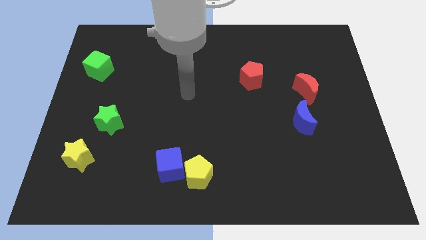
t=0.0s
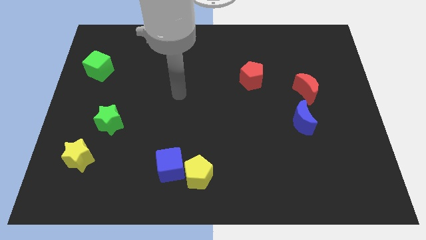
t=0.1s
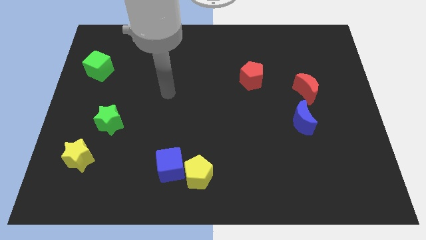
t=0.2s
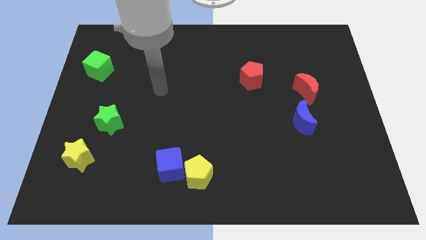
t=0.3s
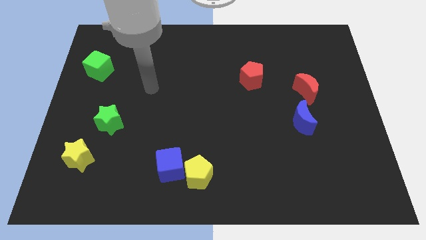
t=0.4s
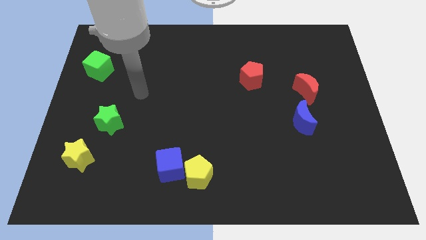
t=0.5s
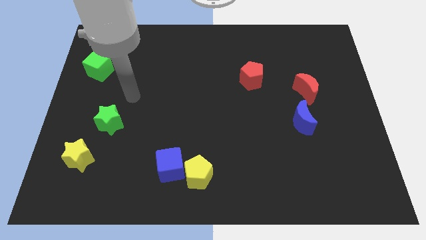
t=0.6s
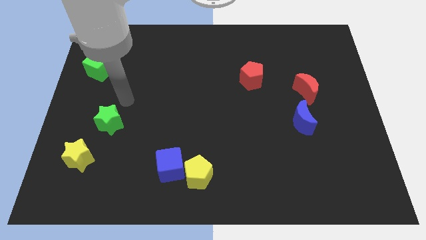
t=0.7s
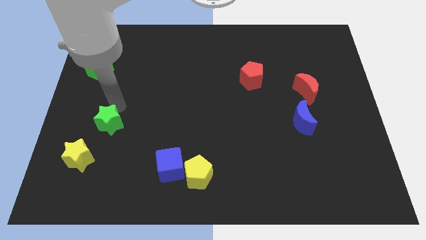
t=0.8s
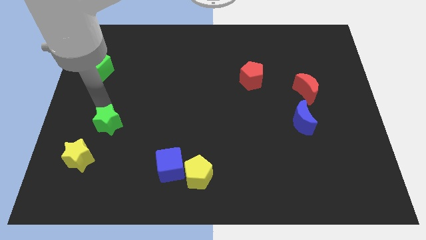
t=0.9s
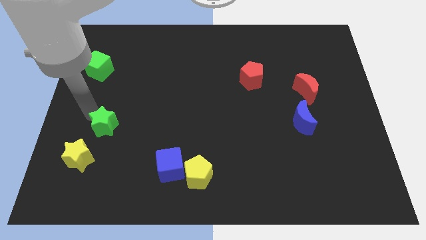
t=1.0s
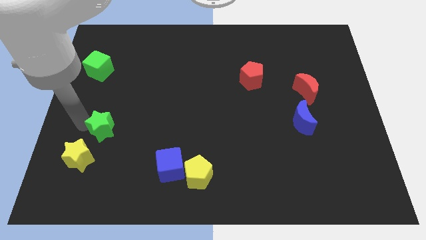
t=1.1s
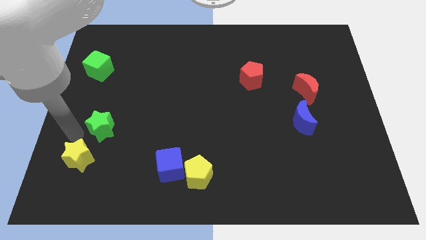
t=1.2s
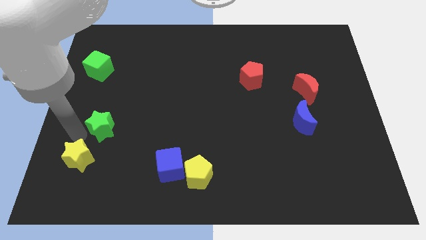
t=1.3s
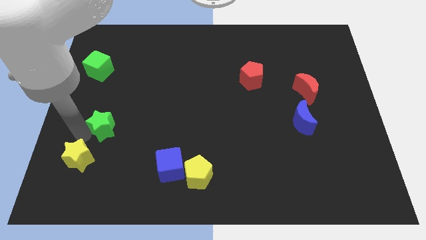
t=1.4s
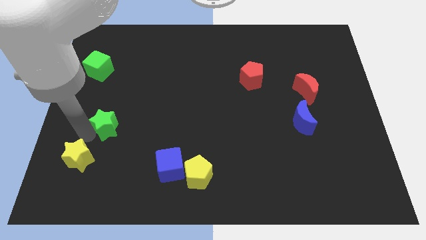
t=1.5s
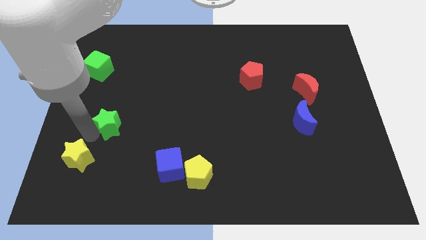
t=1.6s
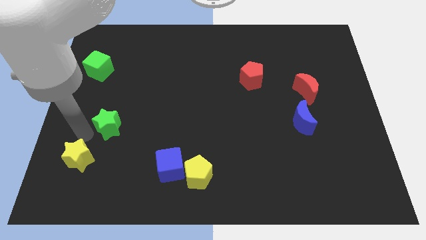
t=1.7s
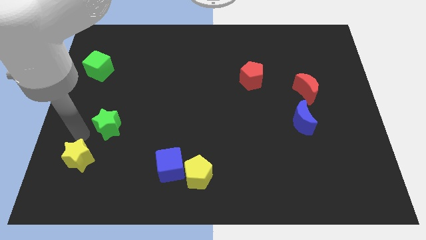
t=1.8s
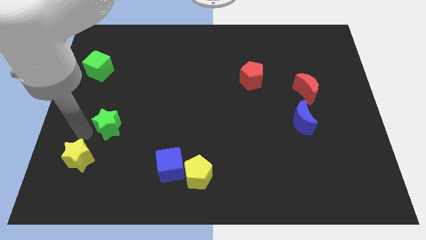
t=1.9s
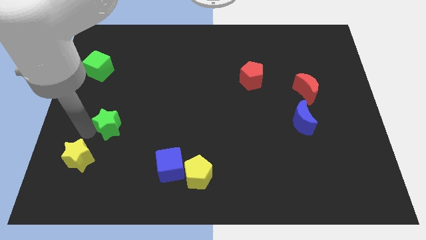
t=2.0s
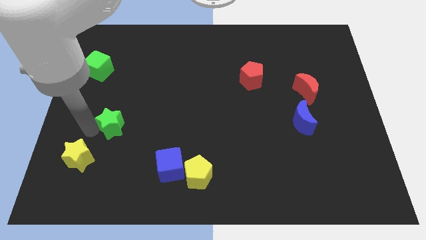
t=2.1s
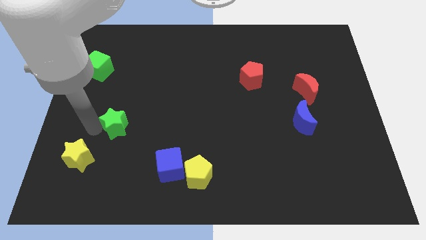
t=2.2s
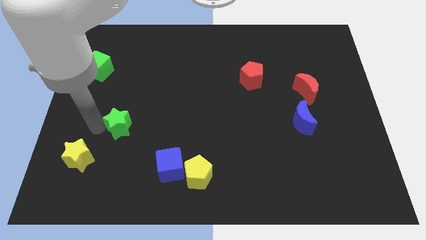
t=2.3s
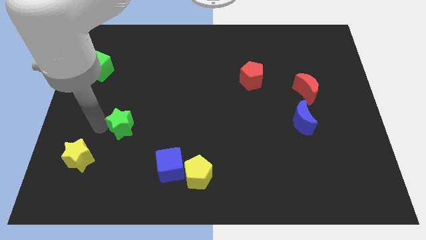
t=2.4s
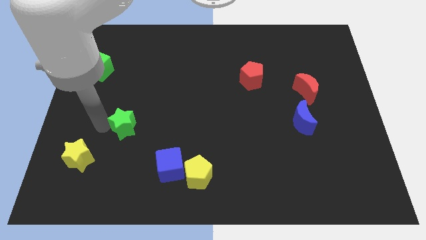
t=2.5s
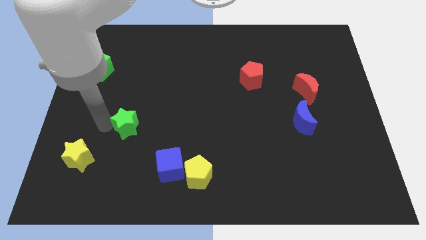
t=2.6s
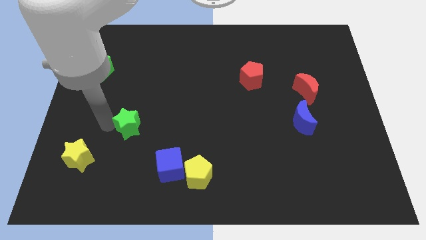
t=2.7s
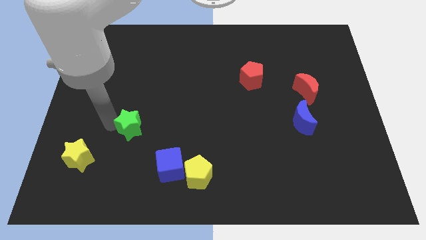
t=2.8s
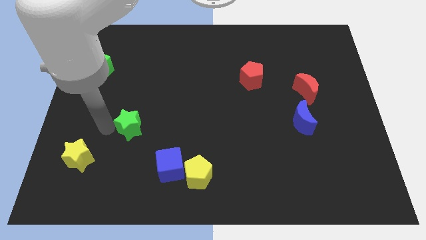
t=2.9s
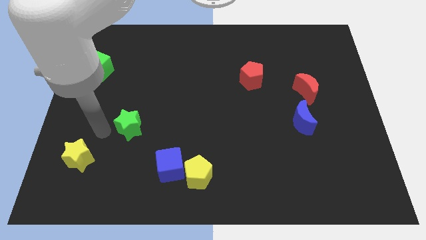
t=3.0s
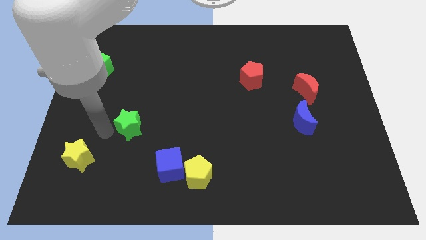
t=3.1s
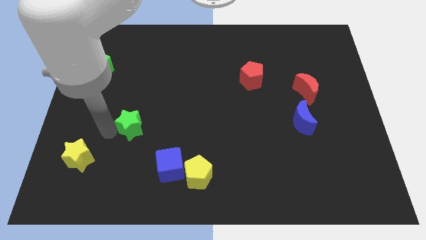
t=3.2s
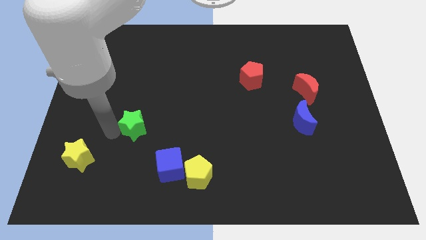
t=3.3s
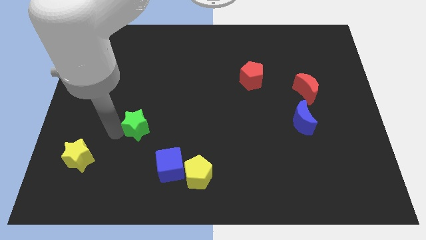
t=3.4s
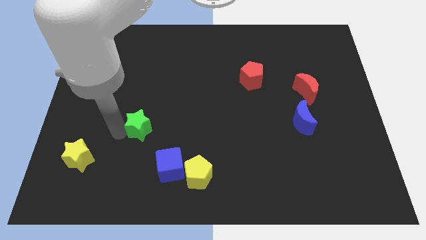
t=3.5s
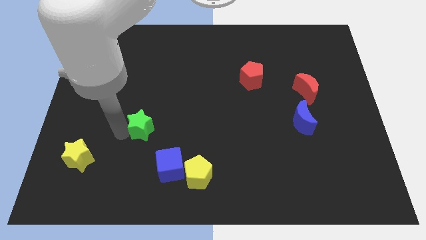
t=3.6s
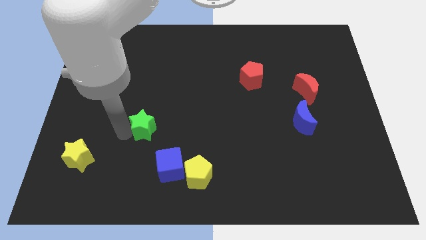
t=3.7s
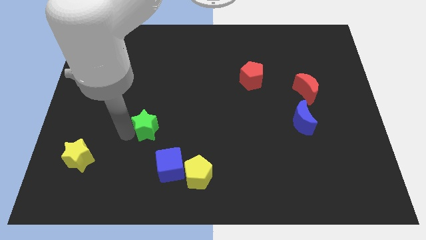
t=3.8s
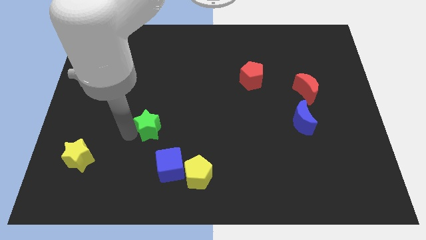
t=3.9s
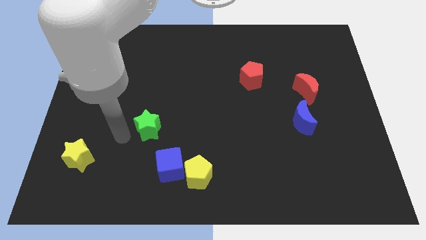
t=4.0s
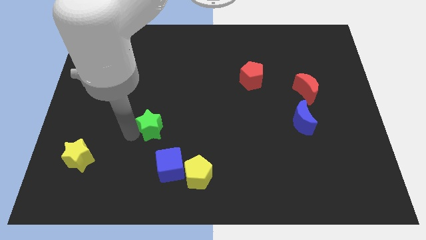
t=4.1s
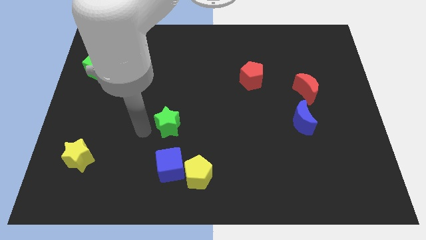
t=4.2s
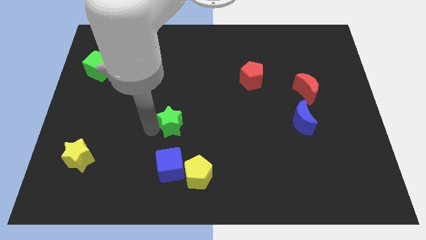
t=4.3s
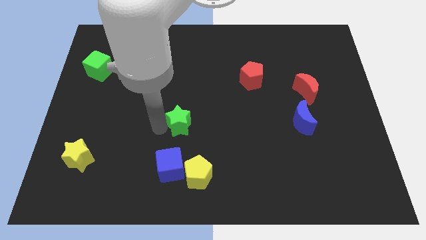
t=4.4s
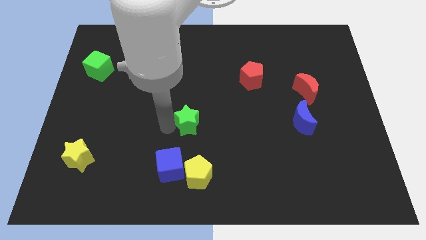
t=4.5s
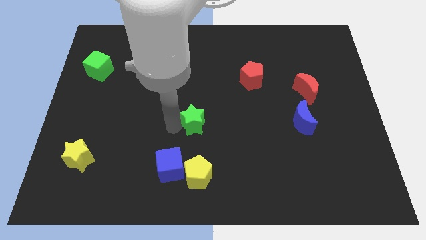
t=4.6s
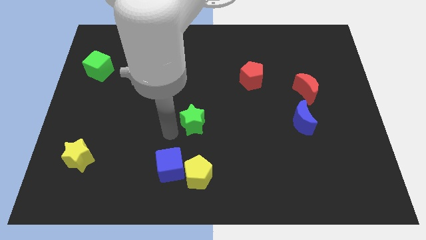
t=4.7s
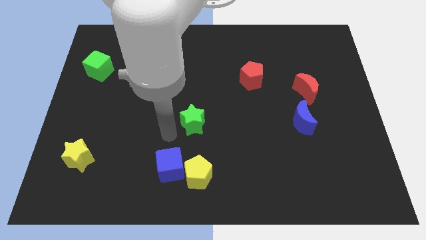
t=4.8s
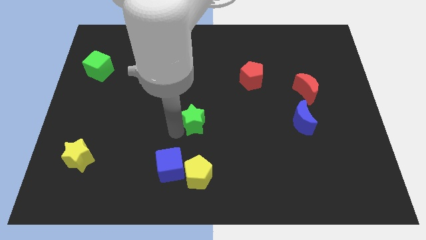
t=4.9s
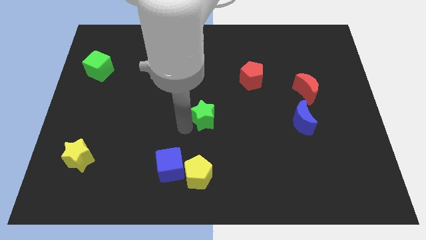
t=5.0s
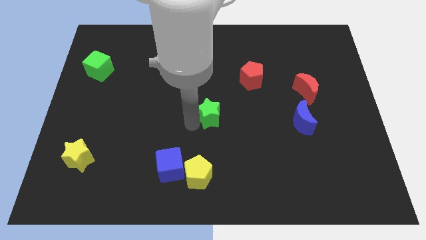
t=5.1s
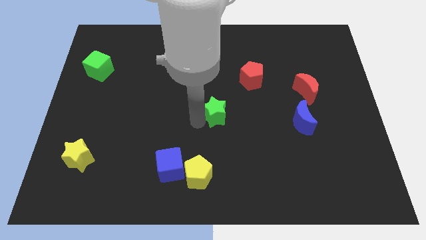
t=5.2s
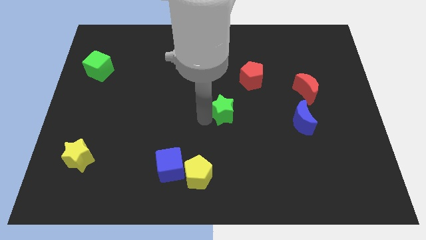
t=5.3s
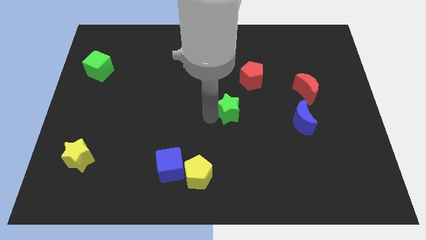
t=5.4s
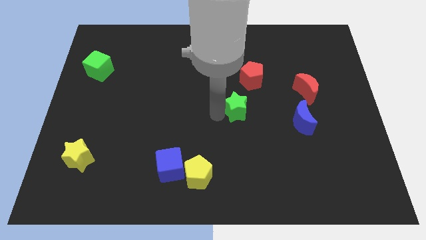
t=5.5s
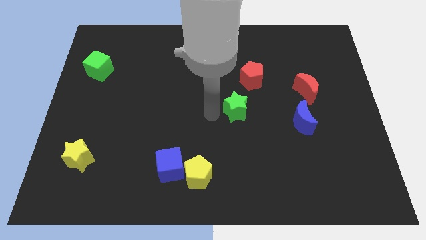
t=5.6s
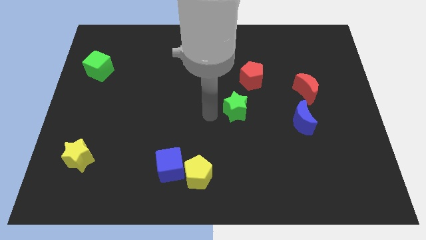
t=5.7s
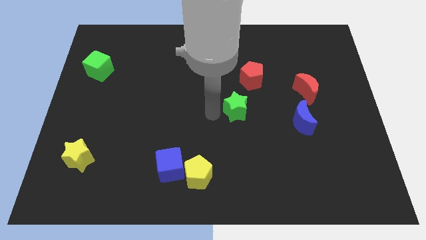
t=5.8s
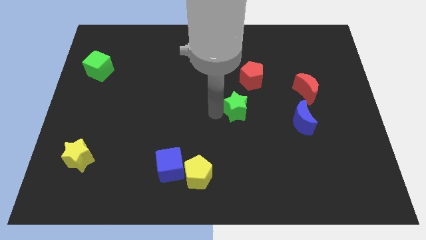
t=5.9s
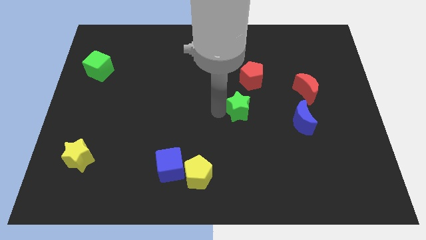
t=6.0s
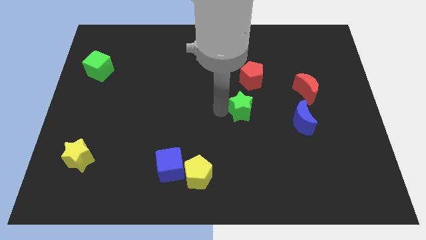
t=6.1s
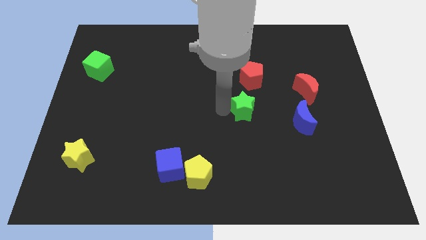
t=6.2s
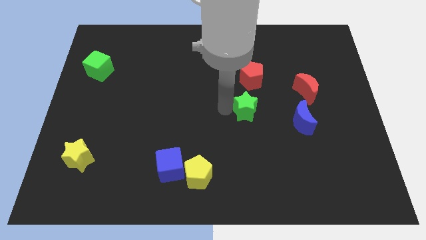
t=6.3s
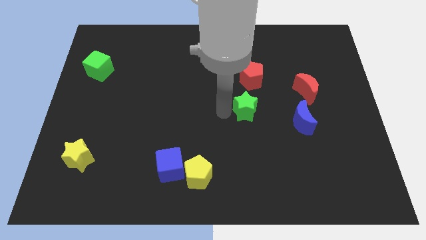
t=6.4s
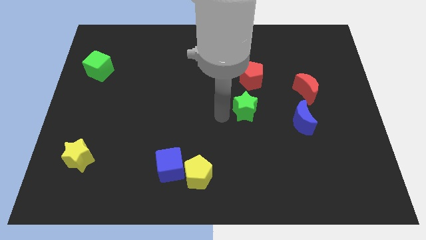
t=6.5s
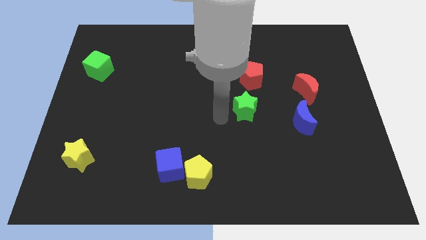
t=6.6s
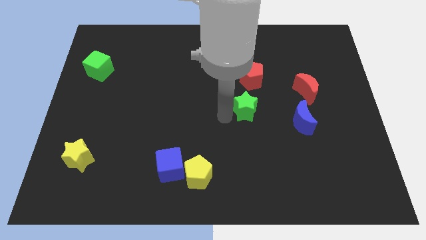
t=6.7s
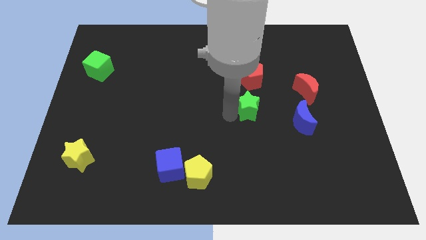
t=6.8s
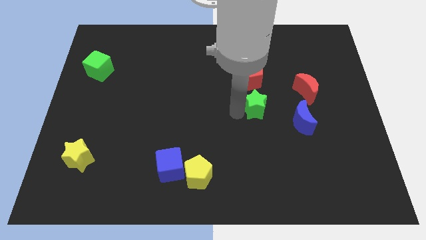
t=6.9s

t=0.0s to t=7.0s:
push the green star to the top left of the blue moon
